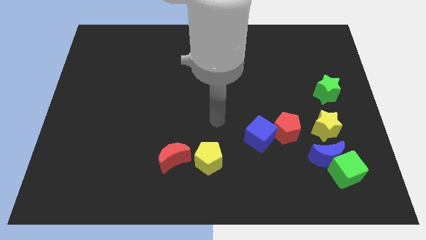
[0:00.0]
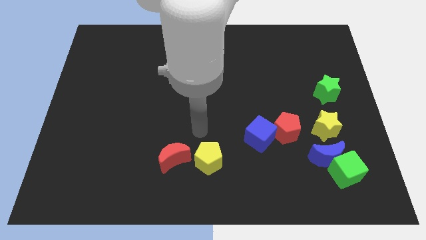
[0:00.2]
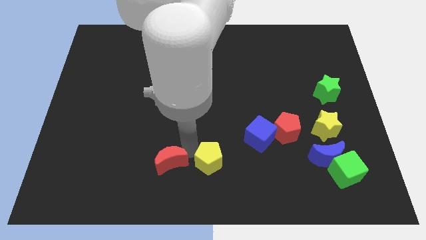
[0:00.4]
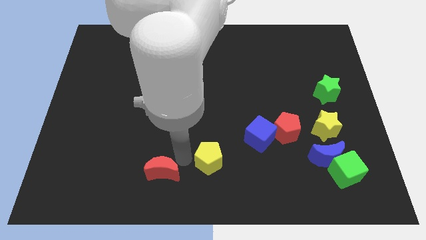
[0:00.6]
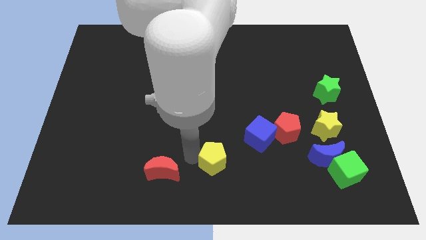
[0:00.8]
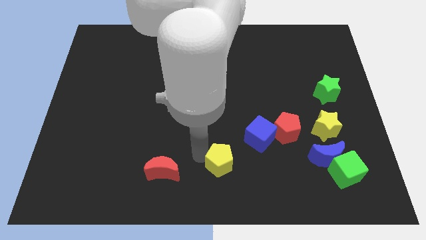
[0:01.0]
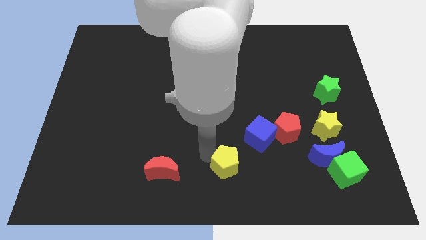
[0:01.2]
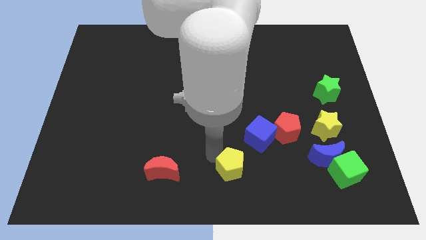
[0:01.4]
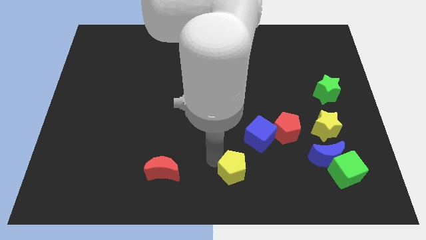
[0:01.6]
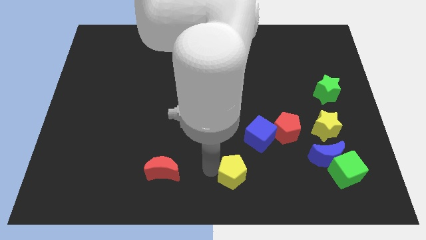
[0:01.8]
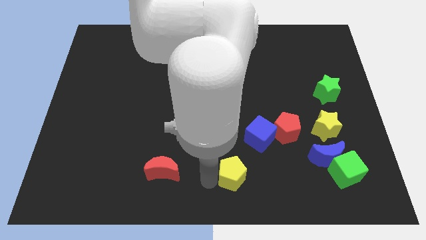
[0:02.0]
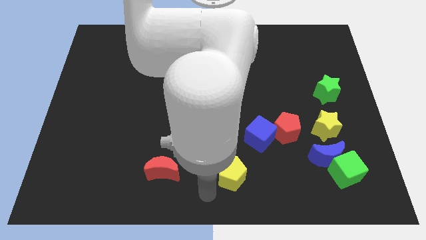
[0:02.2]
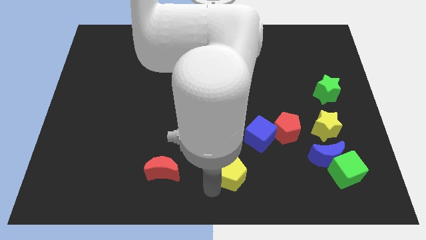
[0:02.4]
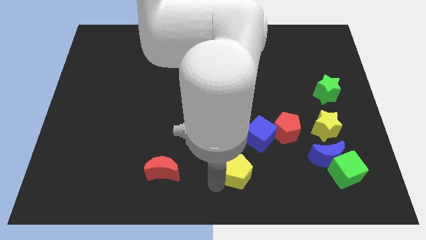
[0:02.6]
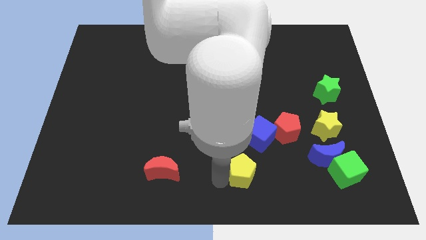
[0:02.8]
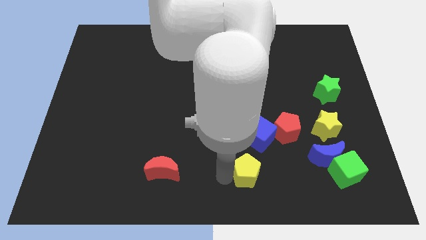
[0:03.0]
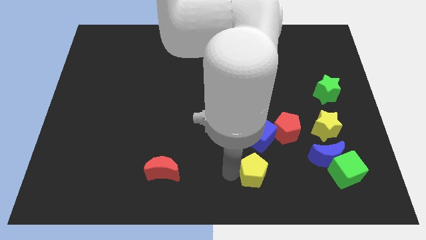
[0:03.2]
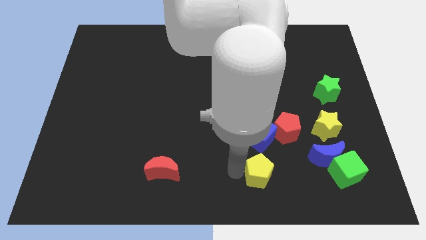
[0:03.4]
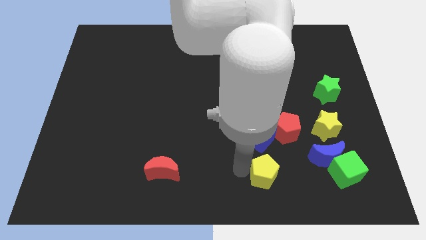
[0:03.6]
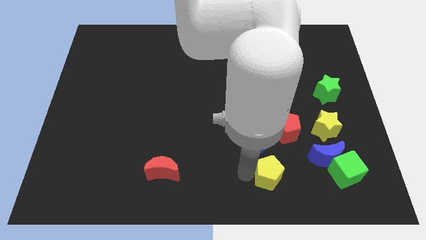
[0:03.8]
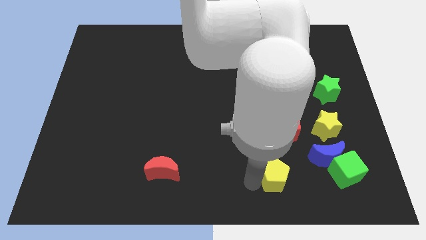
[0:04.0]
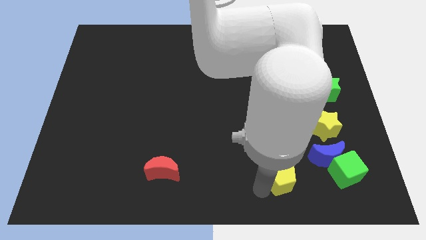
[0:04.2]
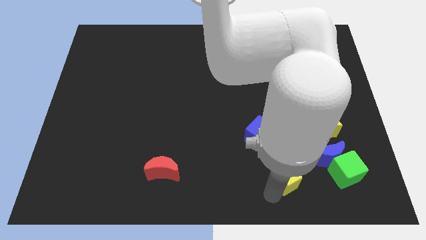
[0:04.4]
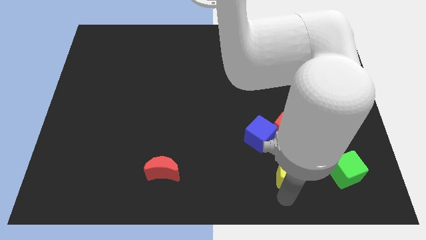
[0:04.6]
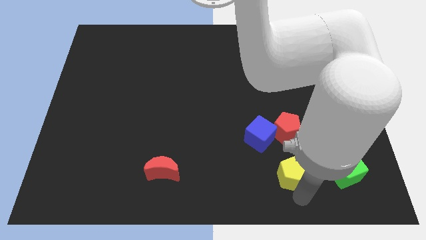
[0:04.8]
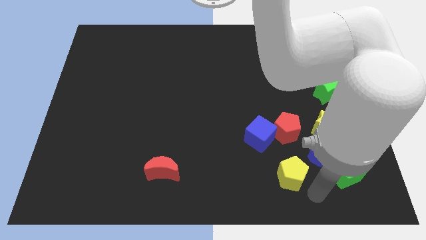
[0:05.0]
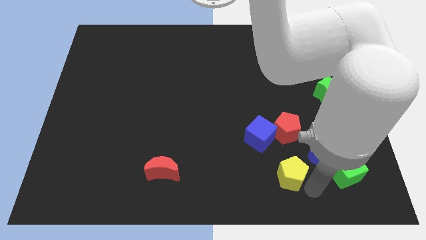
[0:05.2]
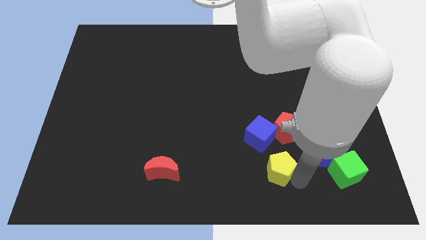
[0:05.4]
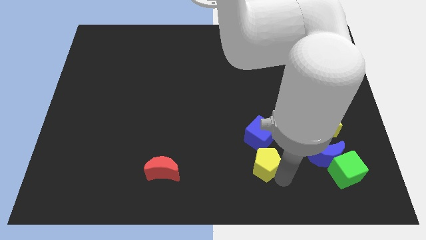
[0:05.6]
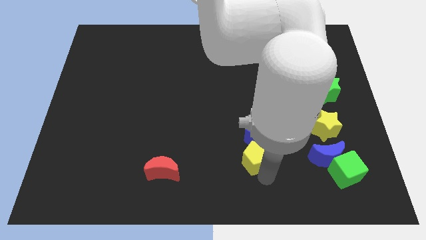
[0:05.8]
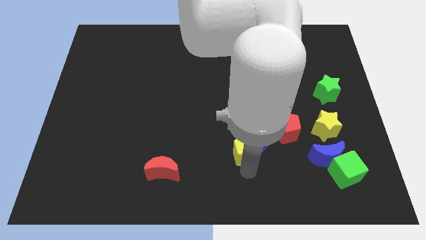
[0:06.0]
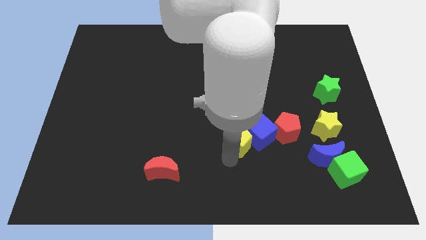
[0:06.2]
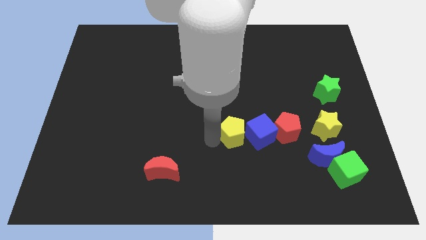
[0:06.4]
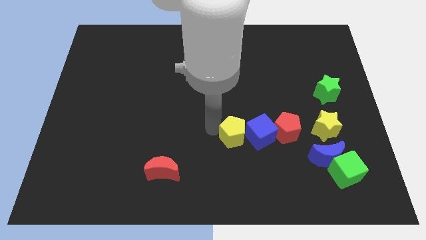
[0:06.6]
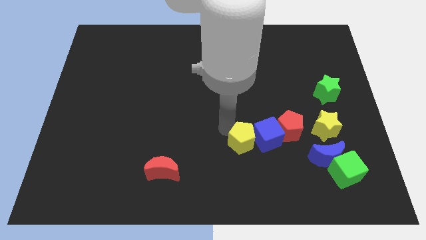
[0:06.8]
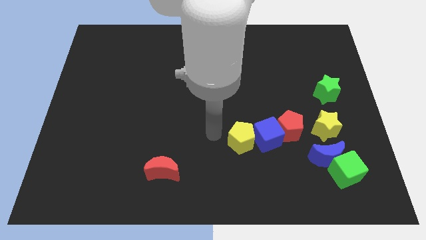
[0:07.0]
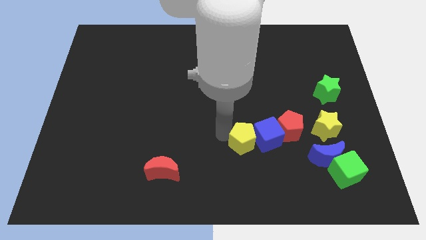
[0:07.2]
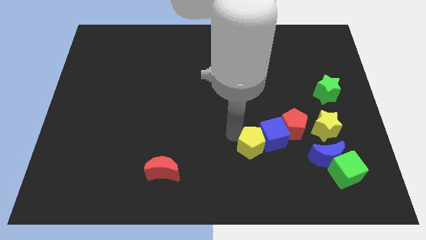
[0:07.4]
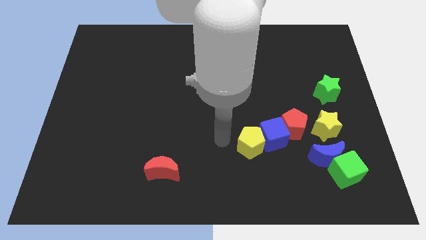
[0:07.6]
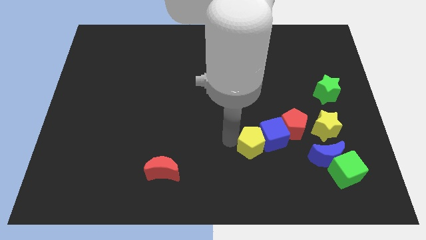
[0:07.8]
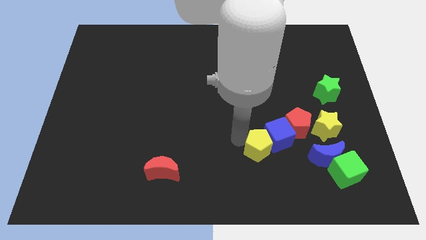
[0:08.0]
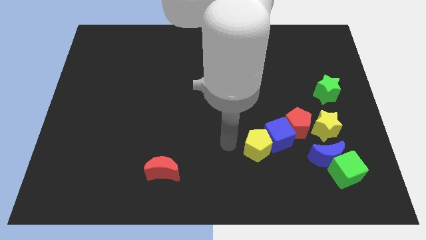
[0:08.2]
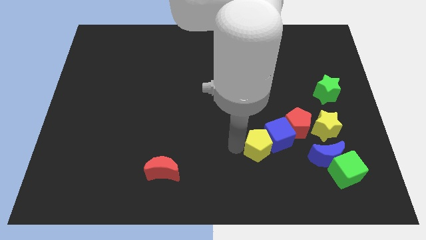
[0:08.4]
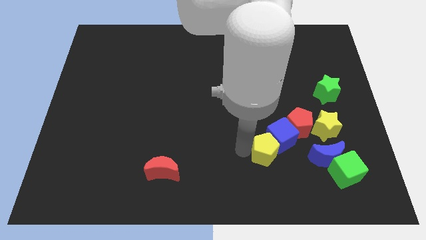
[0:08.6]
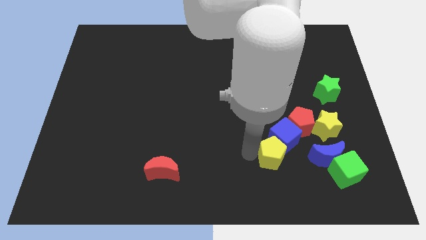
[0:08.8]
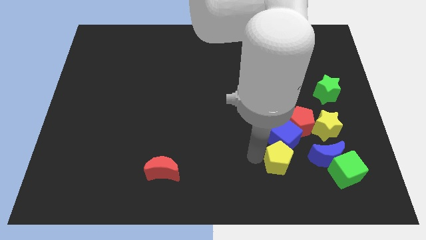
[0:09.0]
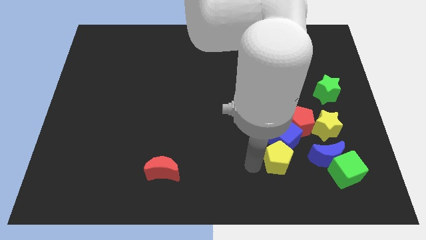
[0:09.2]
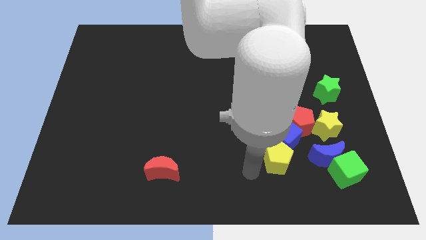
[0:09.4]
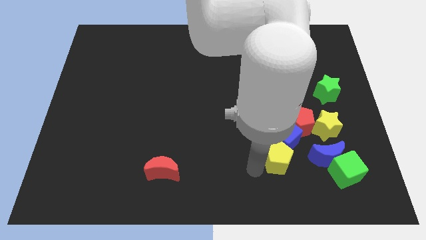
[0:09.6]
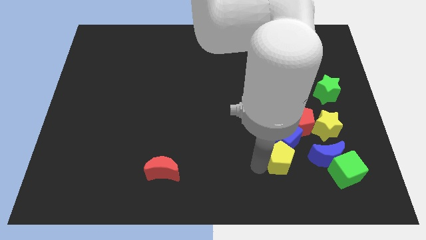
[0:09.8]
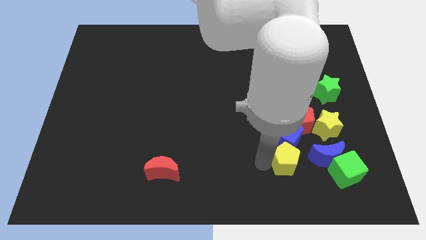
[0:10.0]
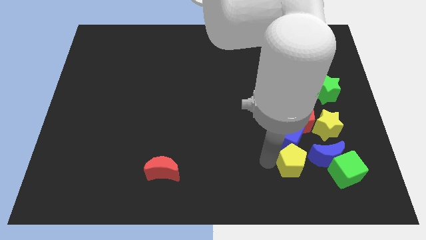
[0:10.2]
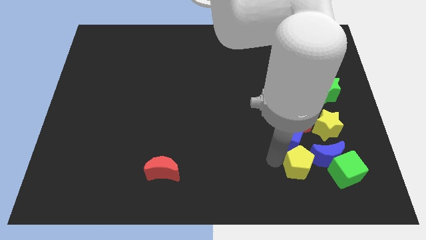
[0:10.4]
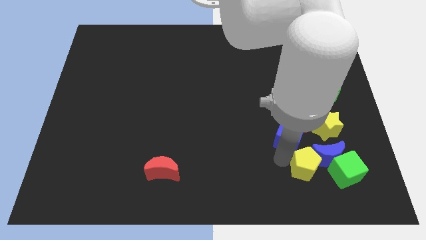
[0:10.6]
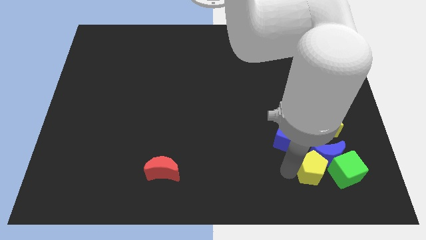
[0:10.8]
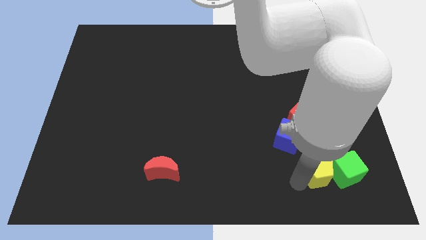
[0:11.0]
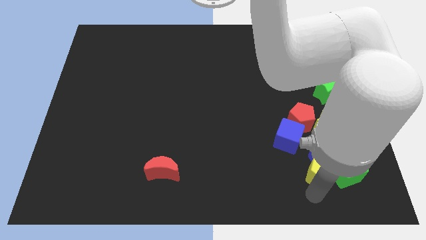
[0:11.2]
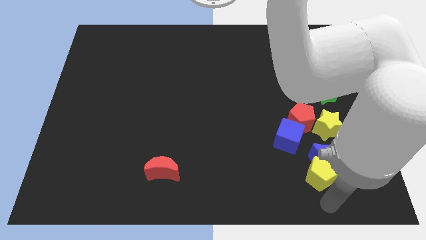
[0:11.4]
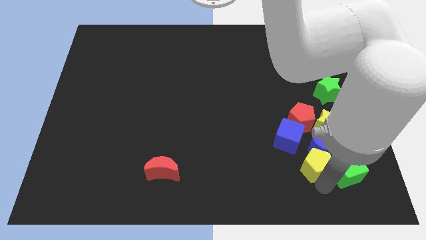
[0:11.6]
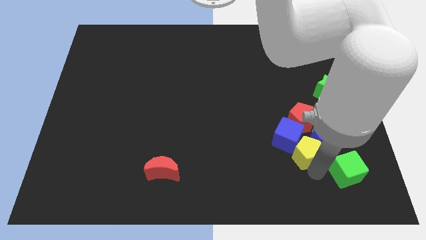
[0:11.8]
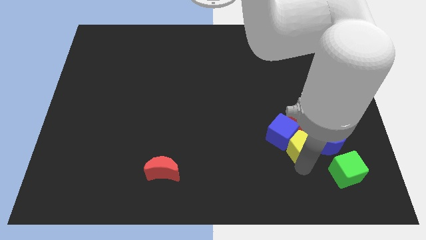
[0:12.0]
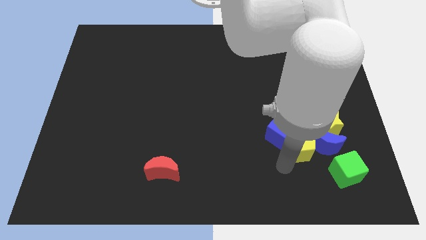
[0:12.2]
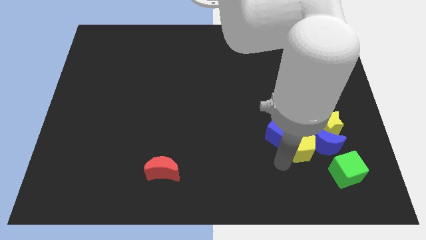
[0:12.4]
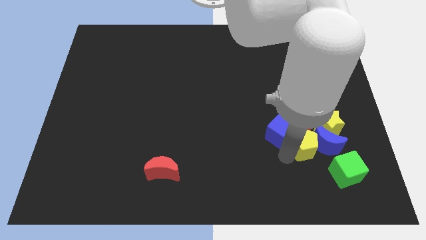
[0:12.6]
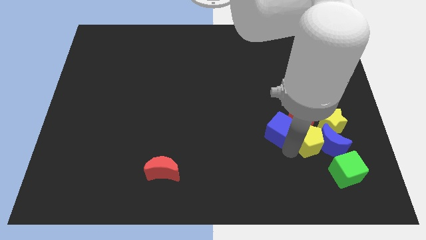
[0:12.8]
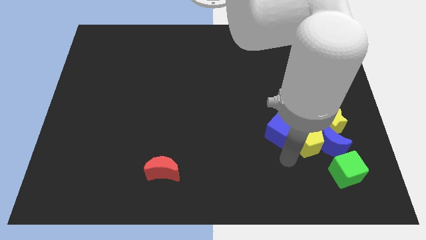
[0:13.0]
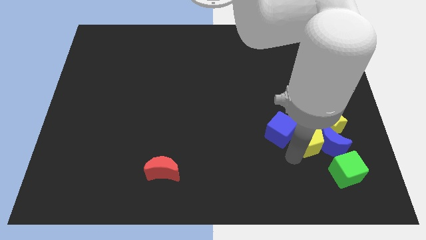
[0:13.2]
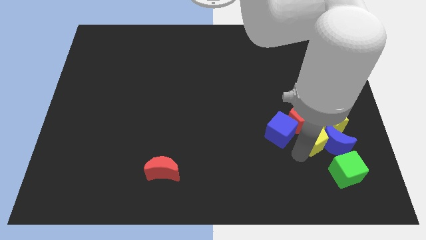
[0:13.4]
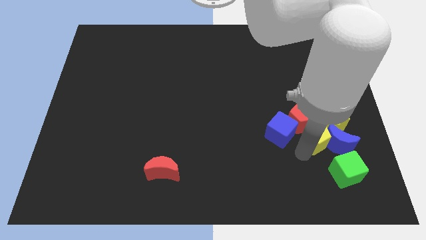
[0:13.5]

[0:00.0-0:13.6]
put the yellow pentagon next to the yellow star

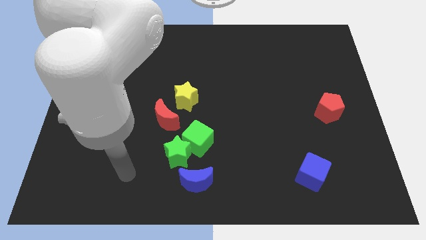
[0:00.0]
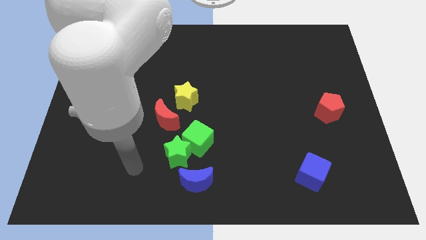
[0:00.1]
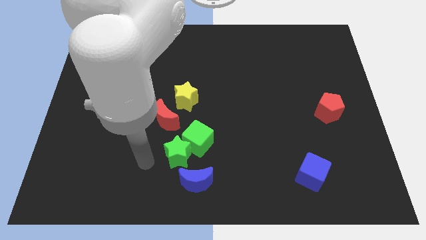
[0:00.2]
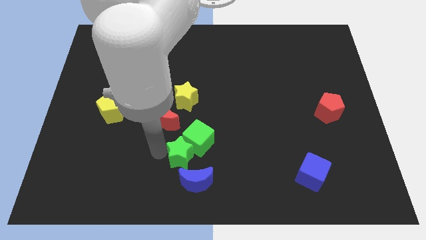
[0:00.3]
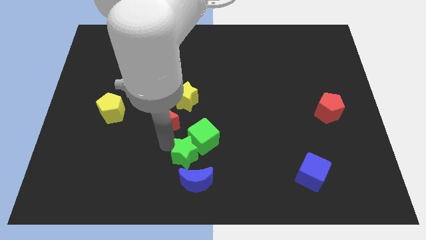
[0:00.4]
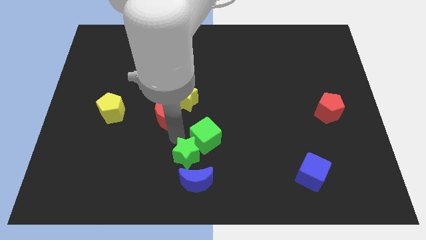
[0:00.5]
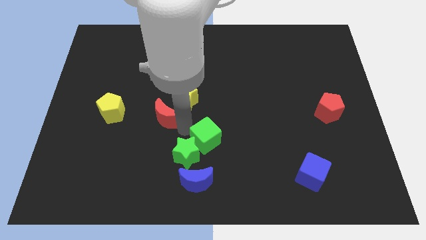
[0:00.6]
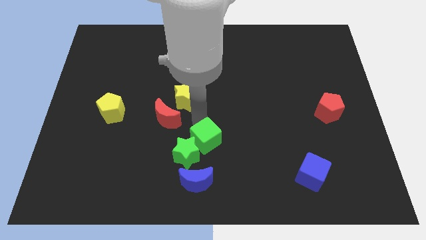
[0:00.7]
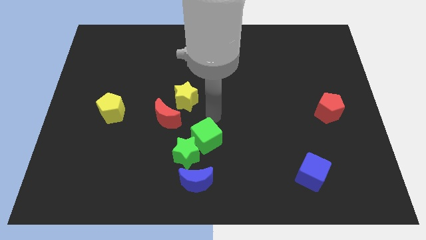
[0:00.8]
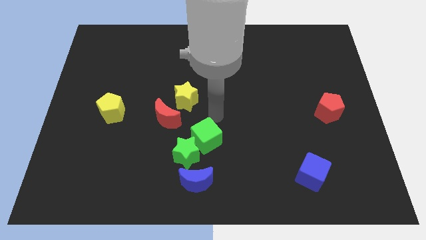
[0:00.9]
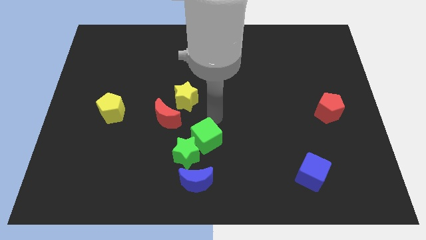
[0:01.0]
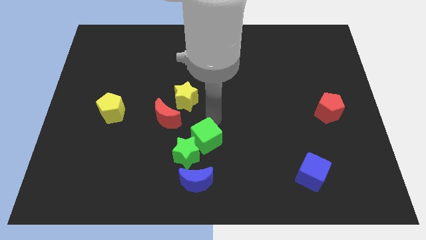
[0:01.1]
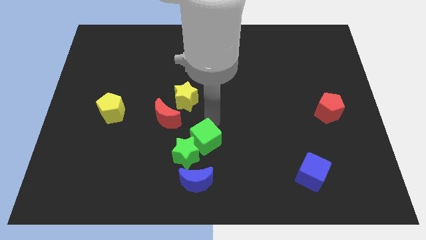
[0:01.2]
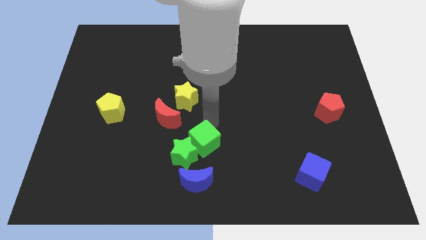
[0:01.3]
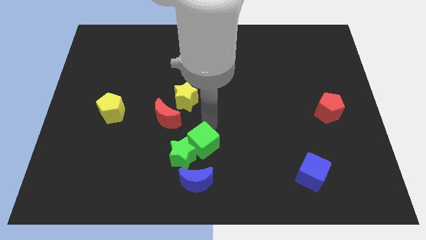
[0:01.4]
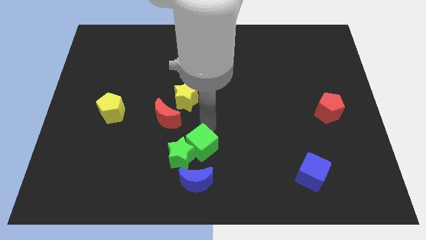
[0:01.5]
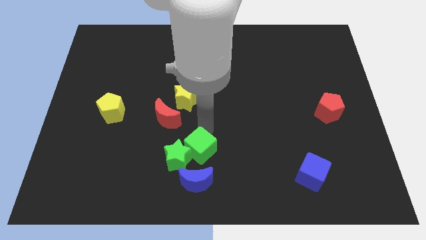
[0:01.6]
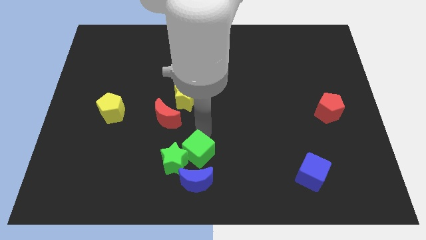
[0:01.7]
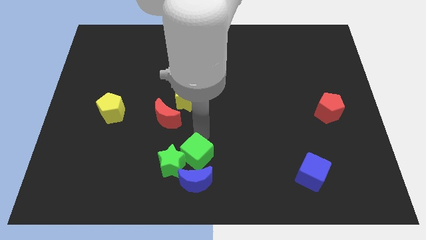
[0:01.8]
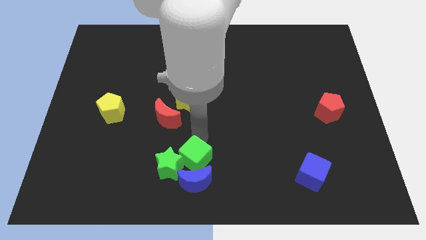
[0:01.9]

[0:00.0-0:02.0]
put the green cube to the blue moon
